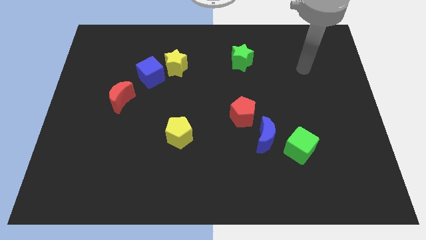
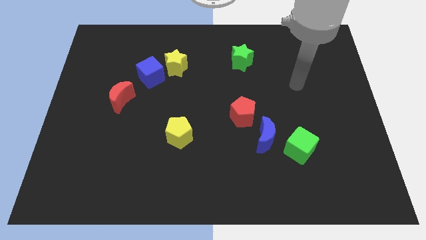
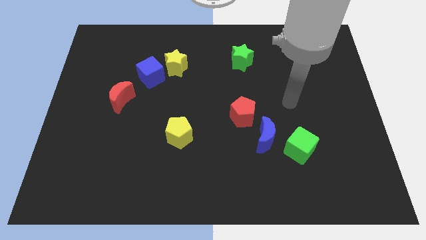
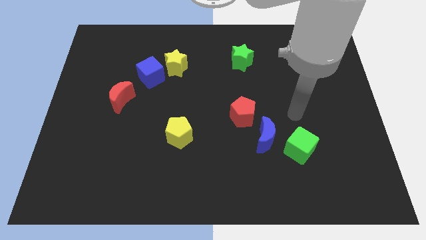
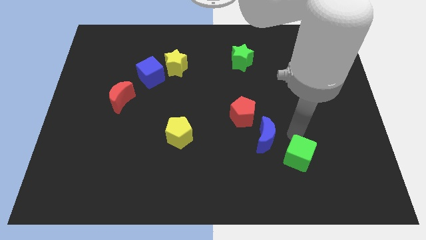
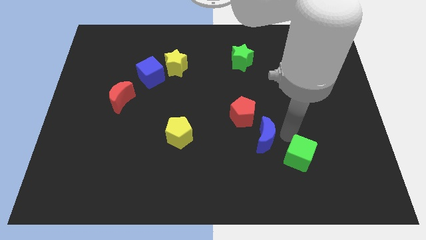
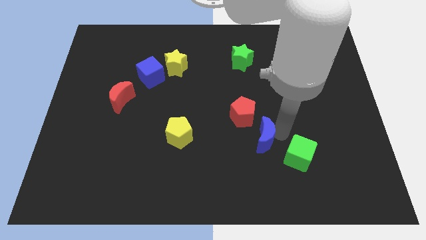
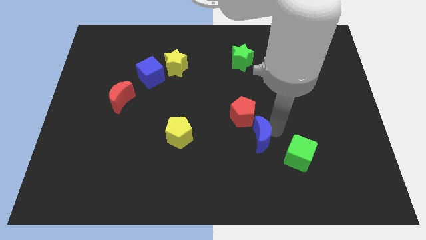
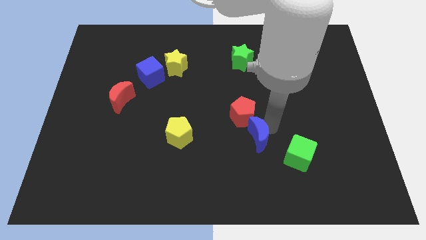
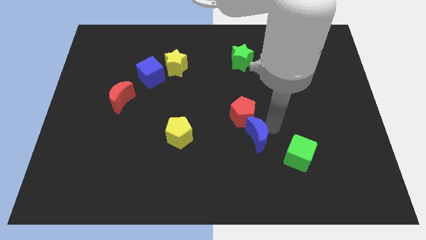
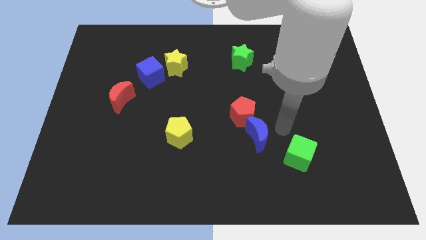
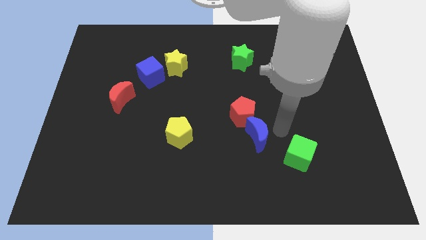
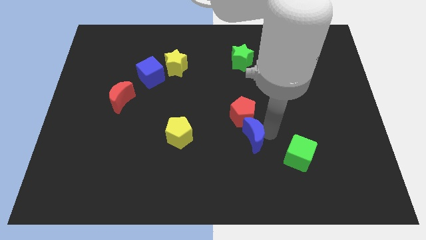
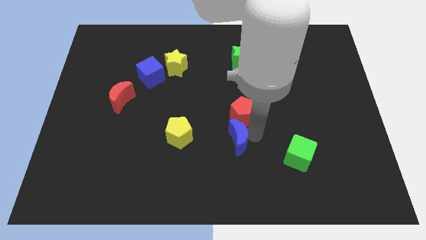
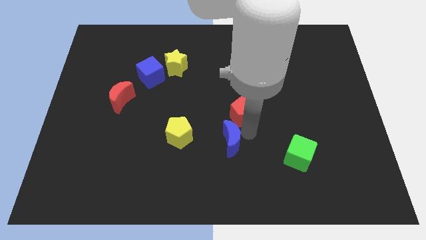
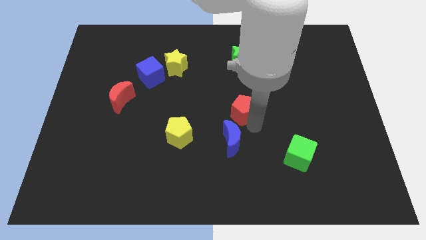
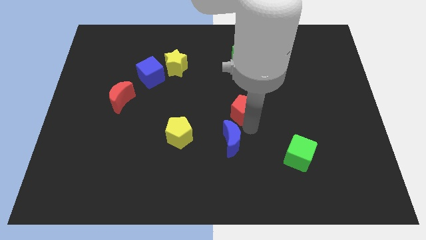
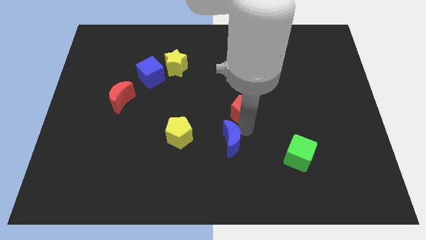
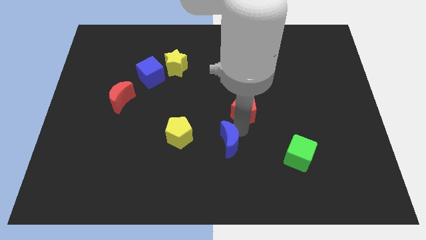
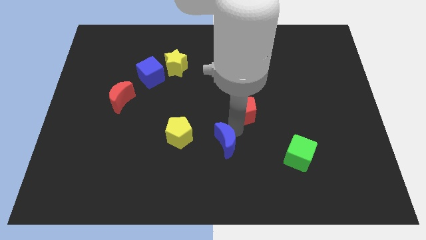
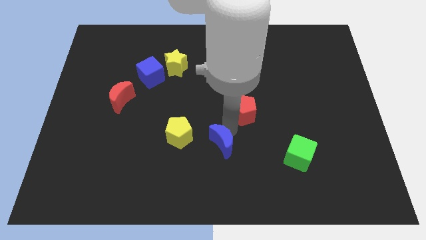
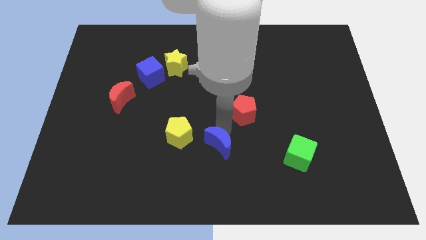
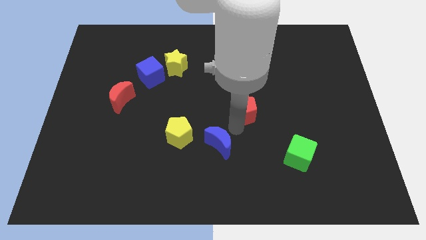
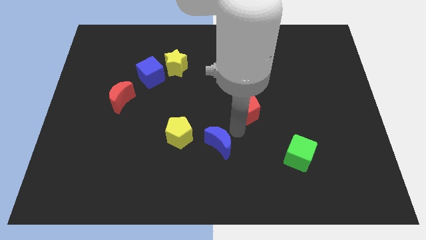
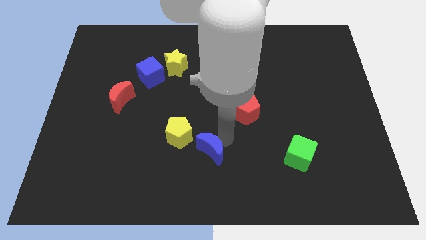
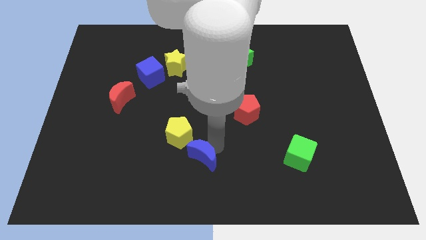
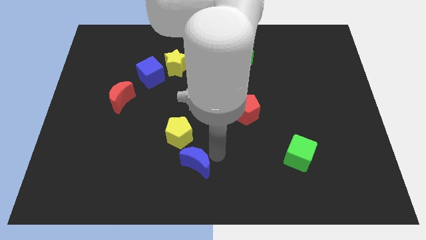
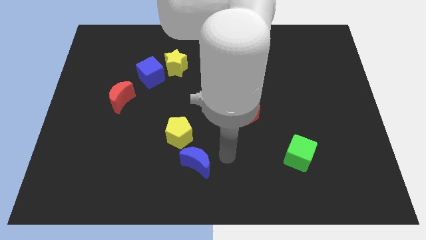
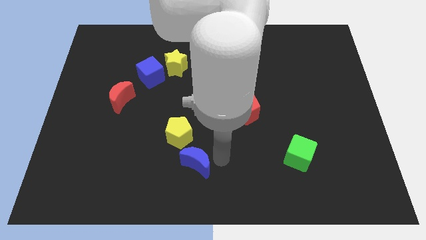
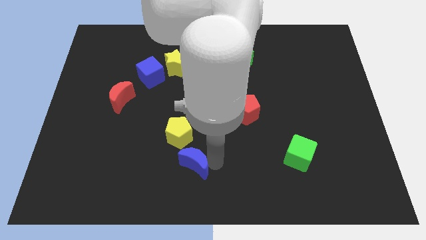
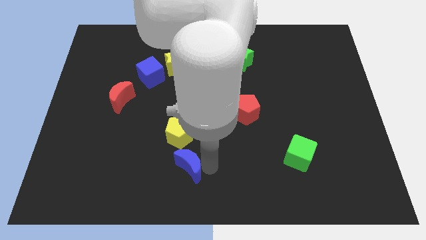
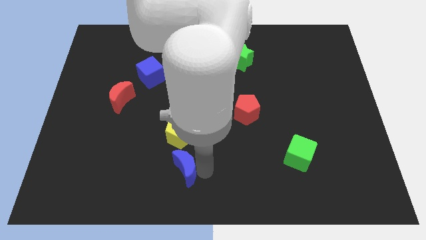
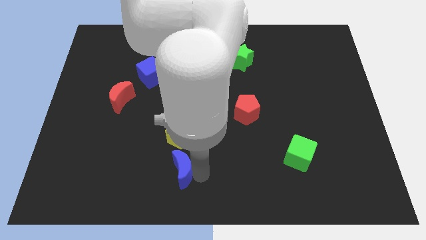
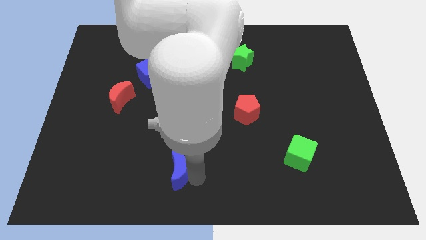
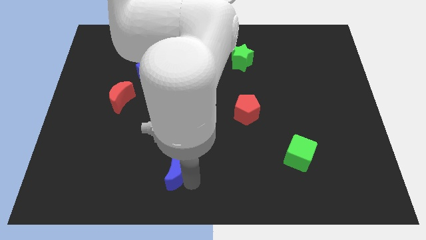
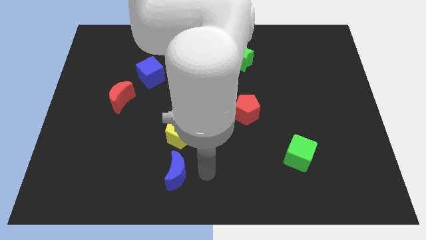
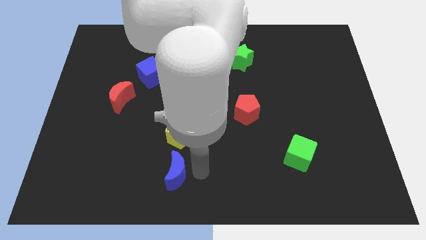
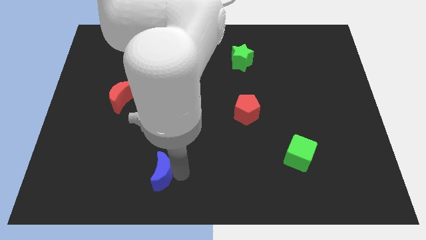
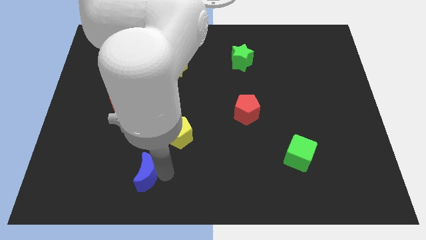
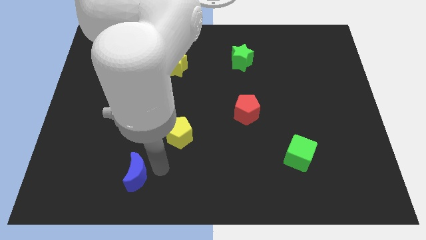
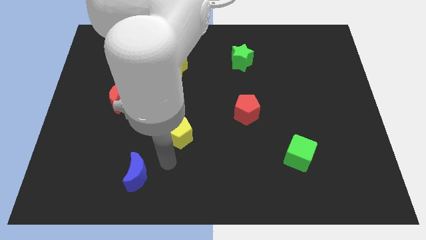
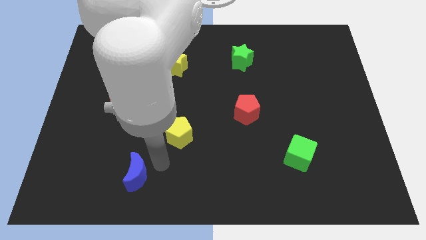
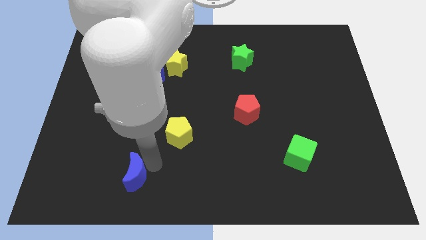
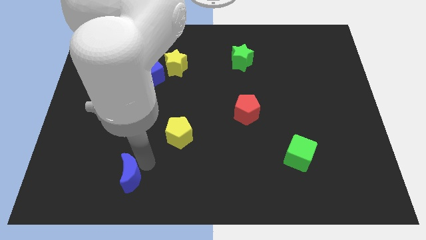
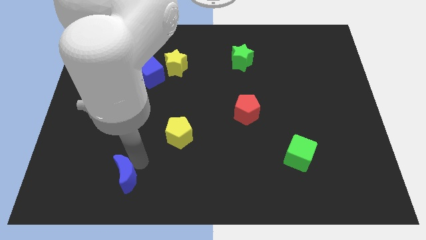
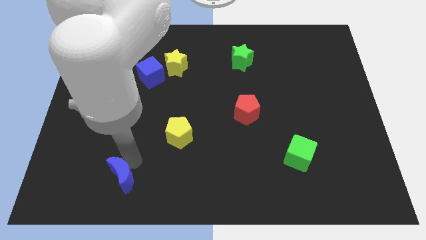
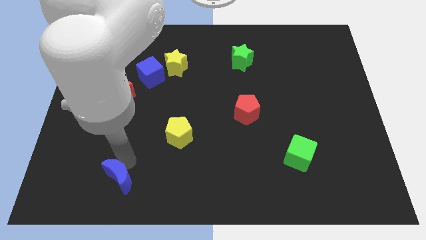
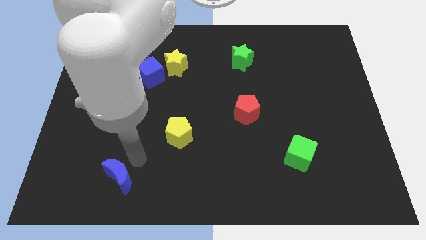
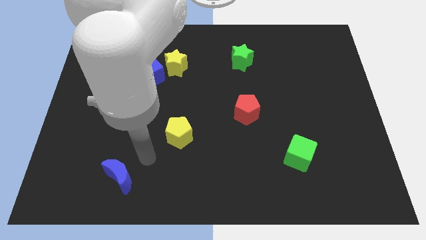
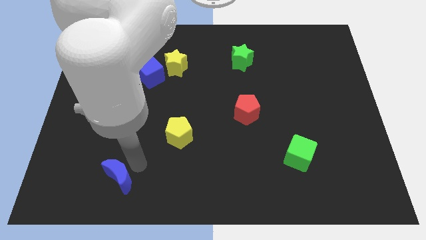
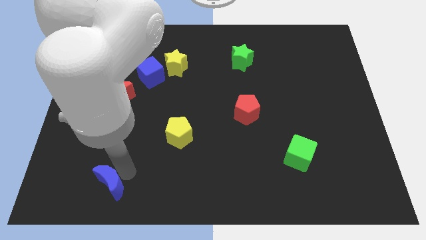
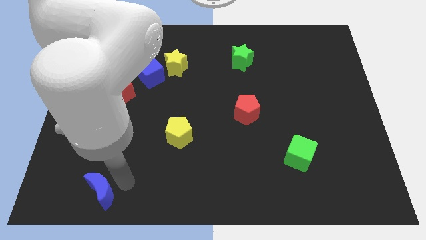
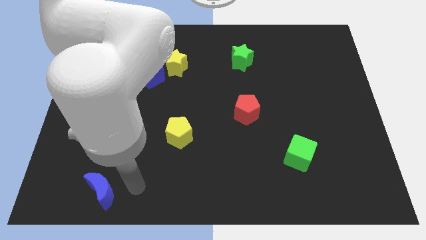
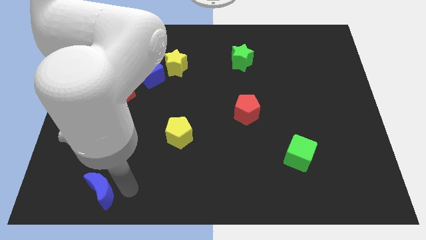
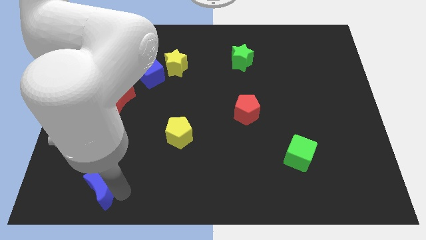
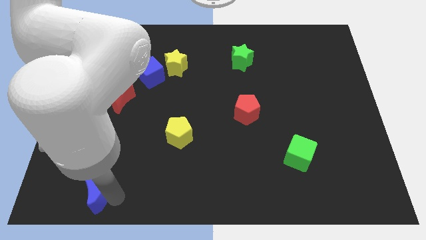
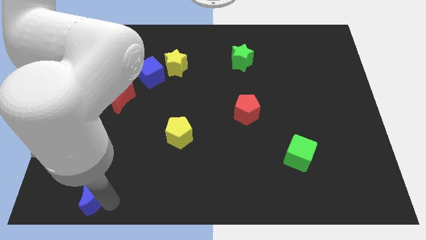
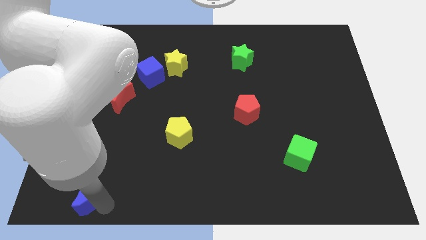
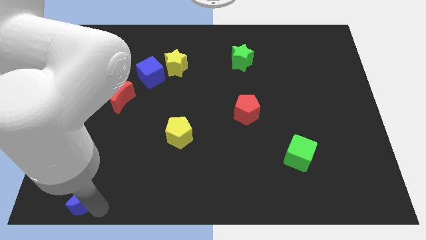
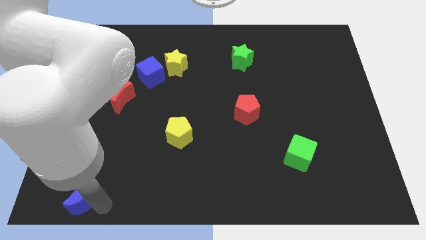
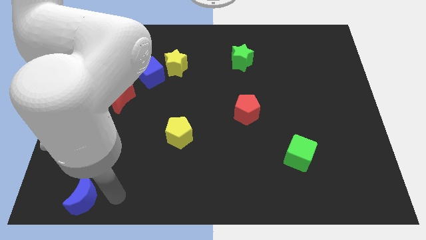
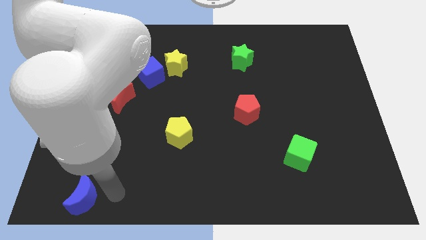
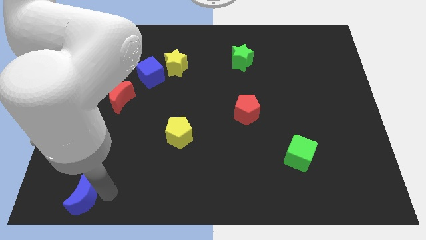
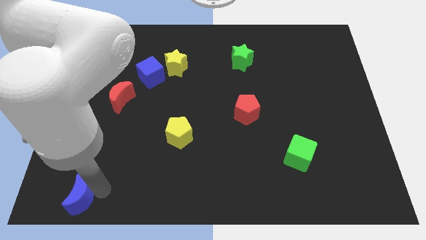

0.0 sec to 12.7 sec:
put the blue moon to the bottom left

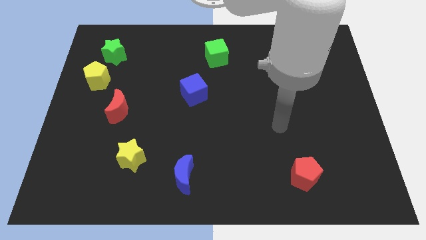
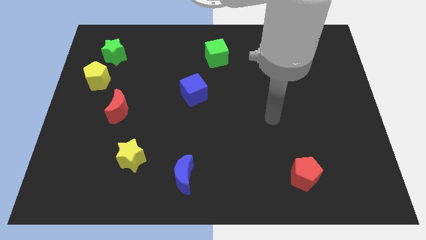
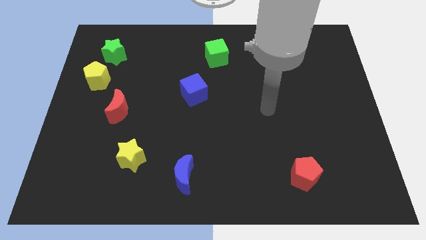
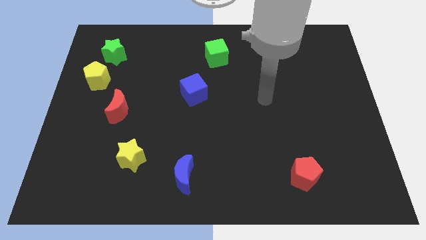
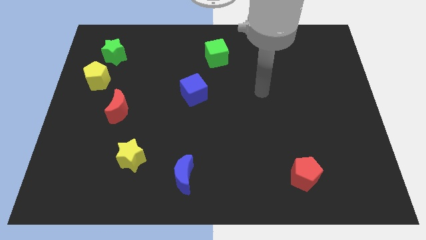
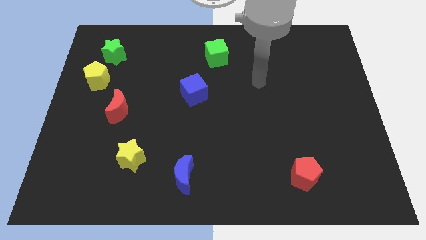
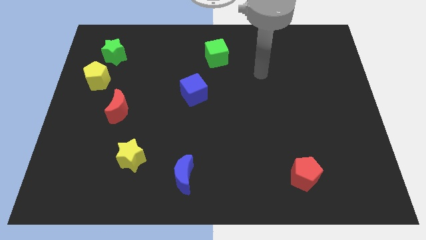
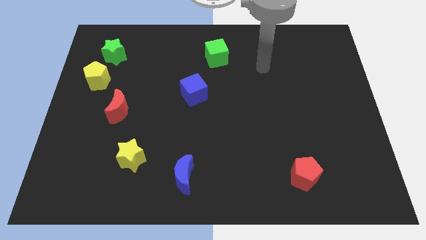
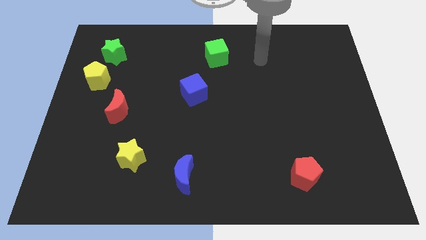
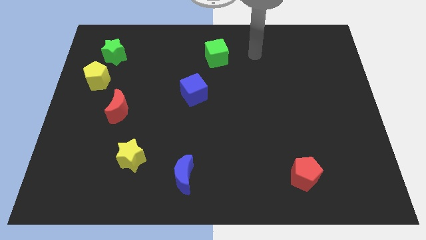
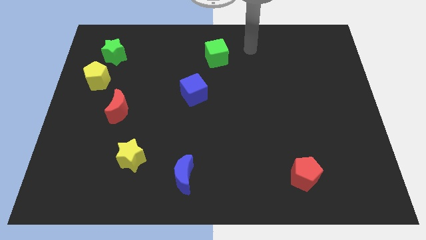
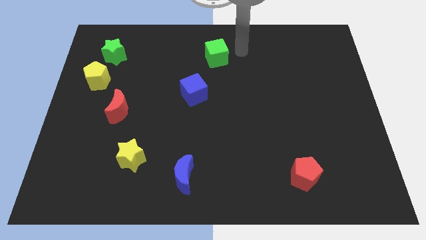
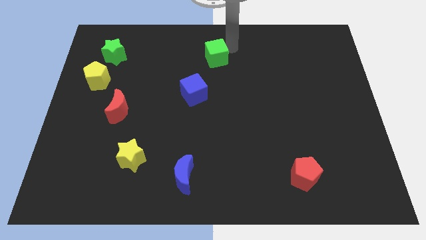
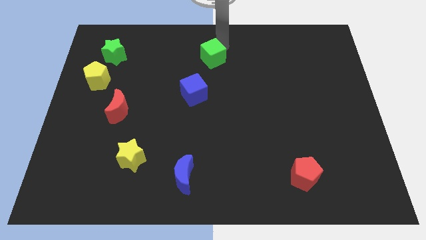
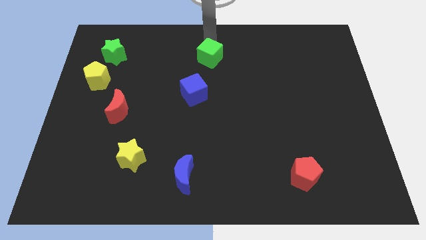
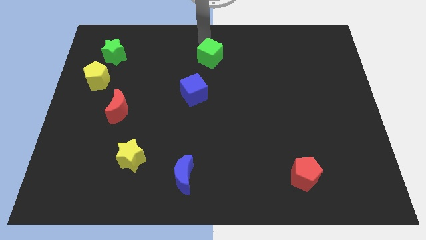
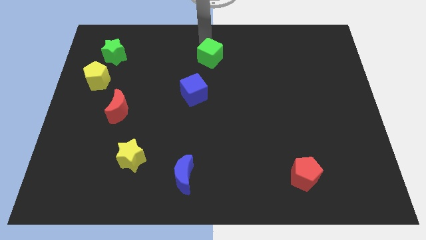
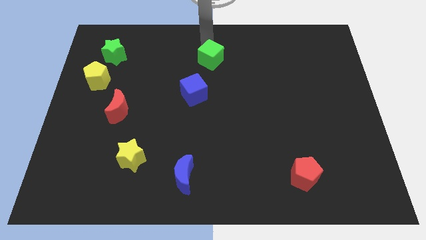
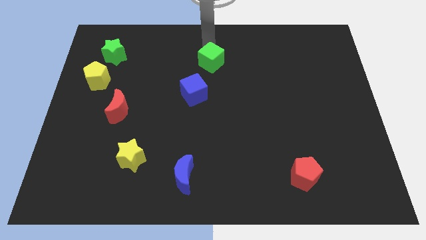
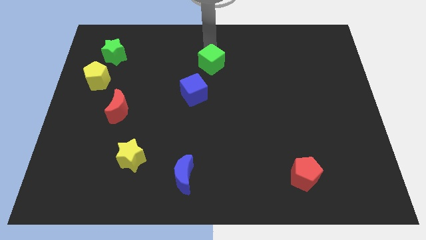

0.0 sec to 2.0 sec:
slide the green cube to the center
